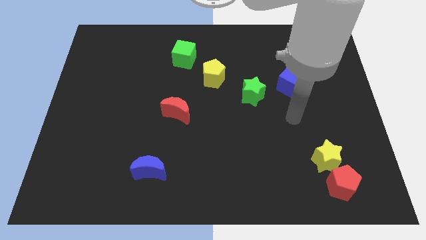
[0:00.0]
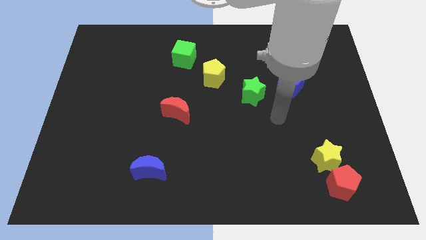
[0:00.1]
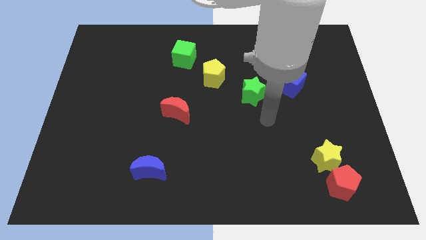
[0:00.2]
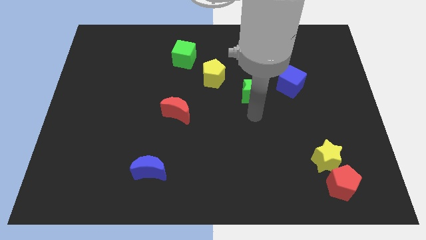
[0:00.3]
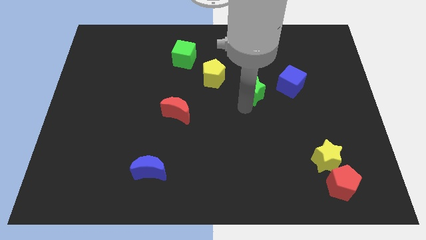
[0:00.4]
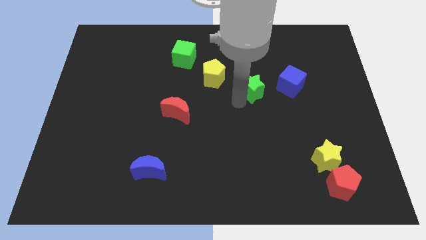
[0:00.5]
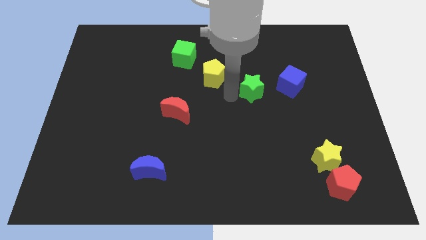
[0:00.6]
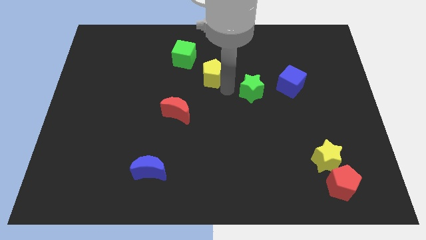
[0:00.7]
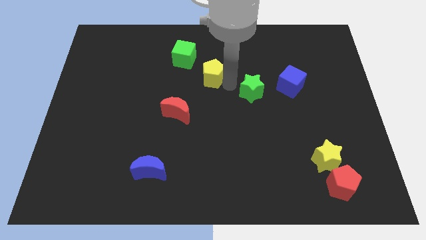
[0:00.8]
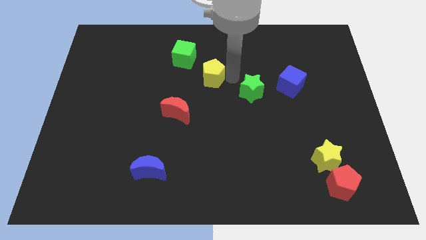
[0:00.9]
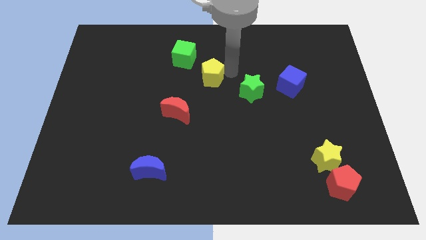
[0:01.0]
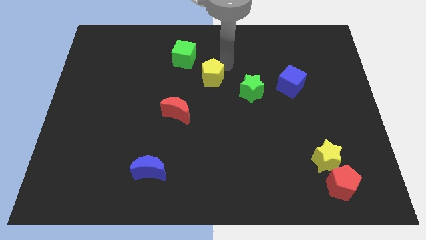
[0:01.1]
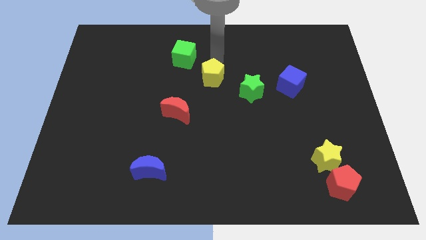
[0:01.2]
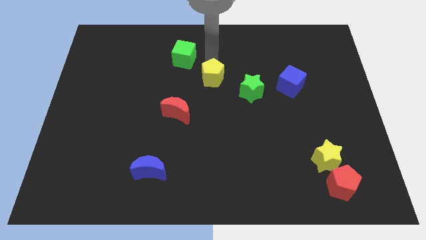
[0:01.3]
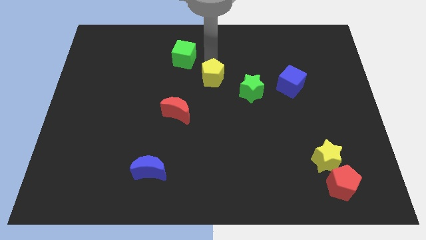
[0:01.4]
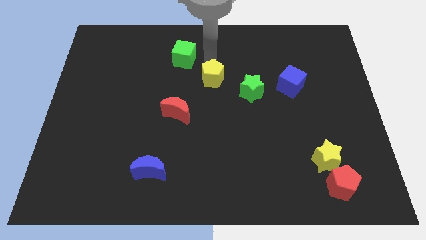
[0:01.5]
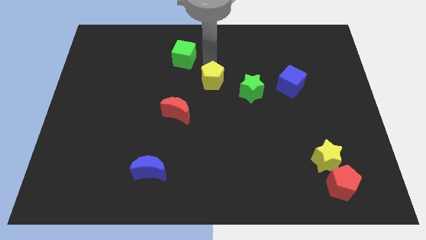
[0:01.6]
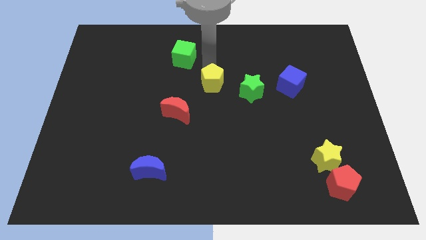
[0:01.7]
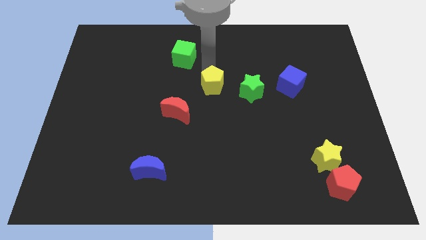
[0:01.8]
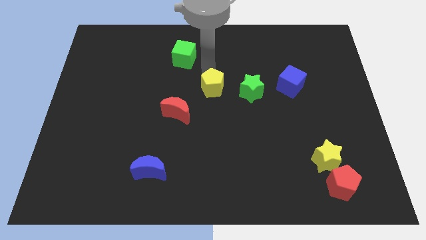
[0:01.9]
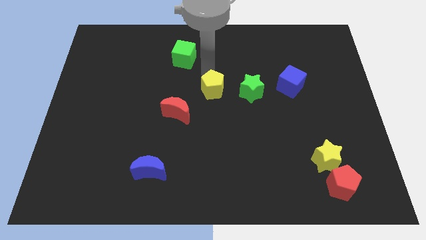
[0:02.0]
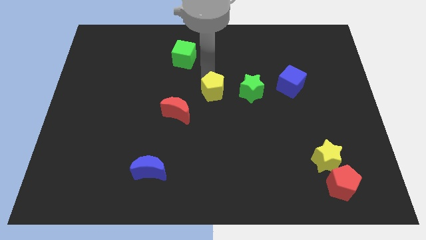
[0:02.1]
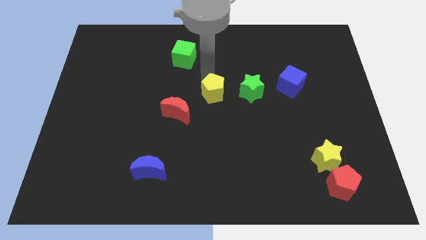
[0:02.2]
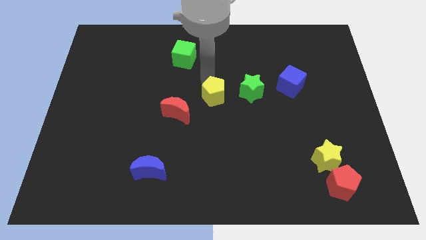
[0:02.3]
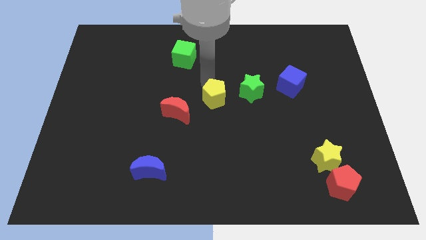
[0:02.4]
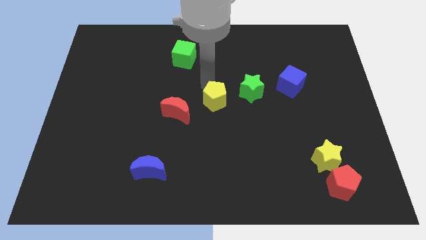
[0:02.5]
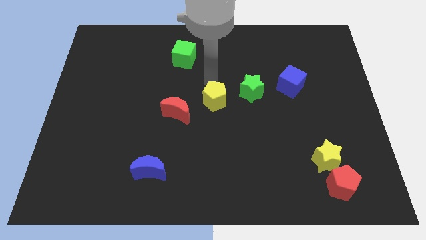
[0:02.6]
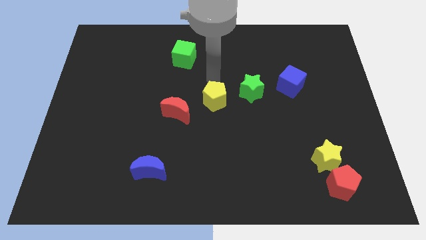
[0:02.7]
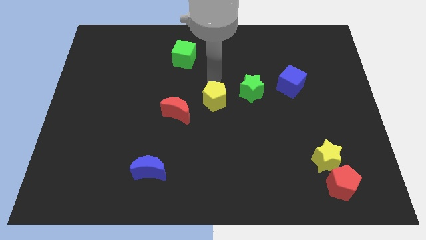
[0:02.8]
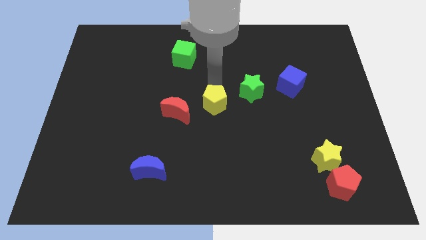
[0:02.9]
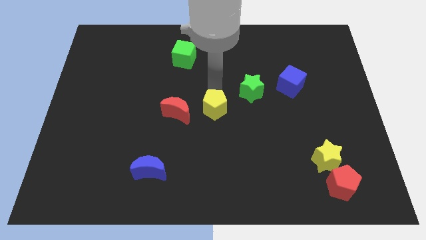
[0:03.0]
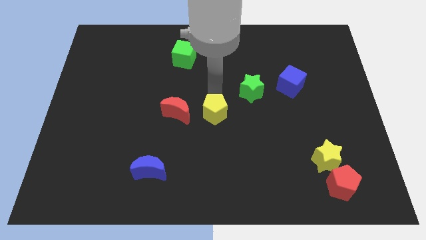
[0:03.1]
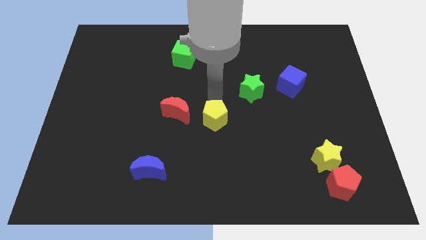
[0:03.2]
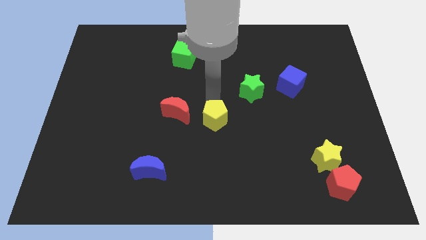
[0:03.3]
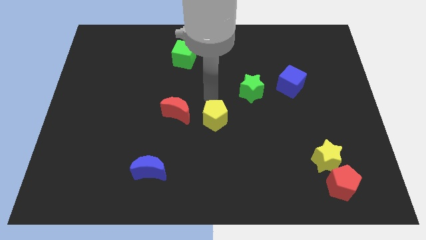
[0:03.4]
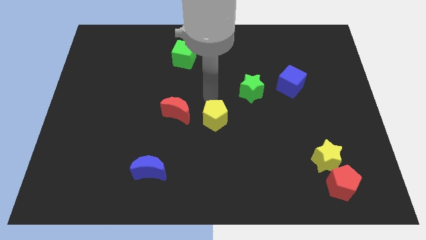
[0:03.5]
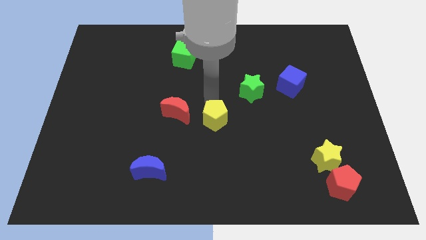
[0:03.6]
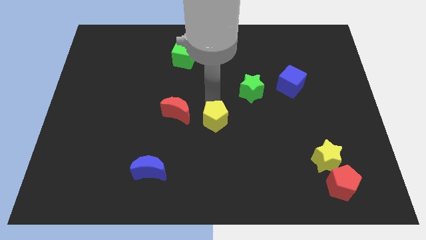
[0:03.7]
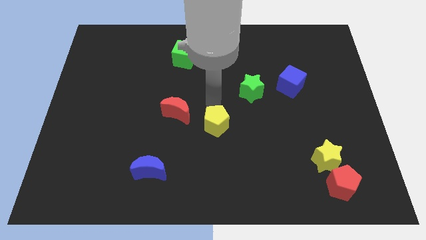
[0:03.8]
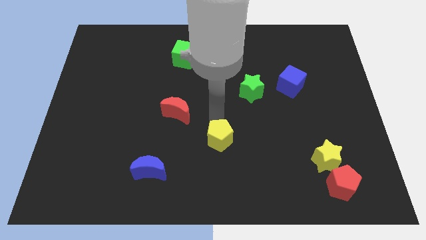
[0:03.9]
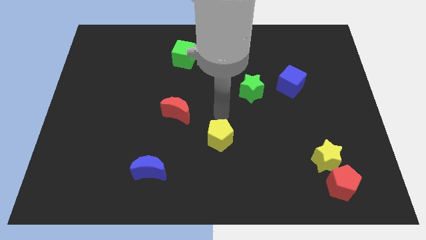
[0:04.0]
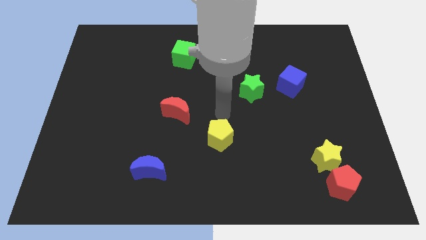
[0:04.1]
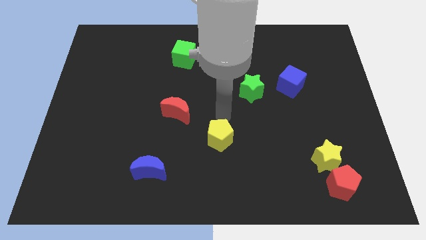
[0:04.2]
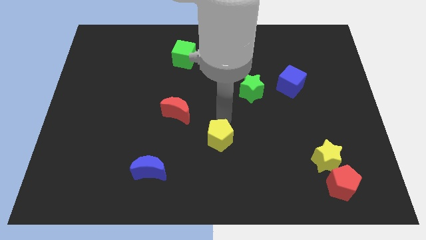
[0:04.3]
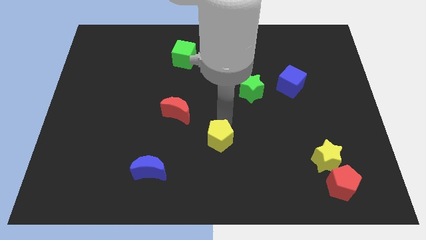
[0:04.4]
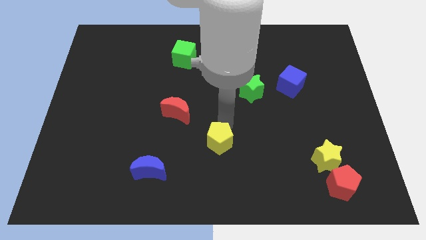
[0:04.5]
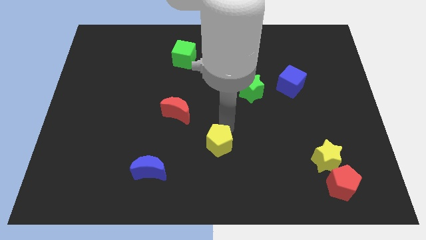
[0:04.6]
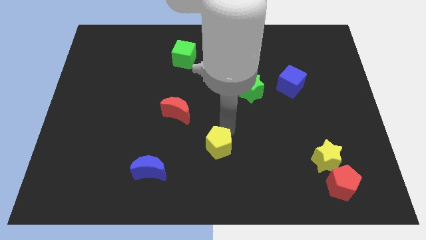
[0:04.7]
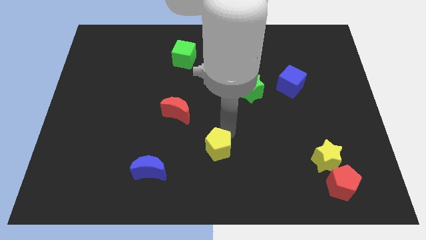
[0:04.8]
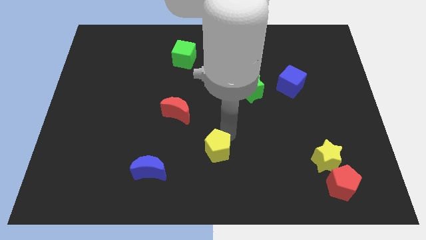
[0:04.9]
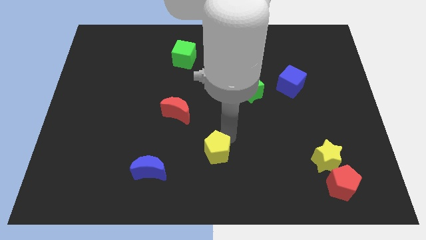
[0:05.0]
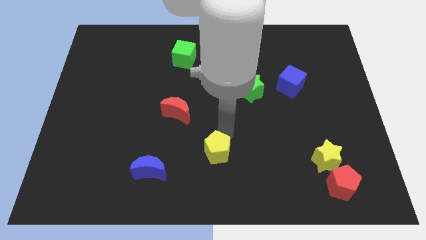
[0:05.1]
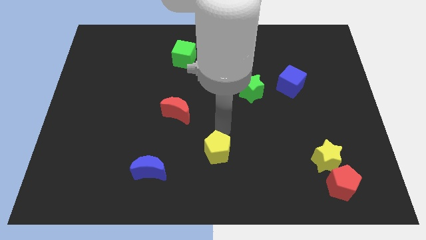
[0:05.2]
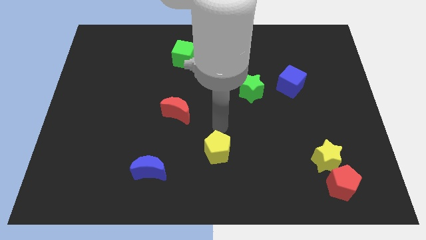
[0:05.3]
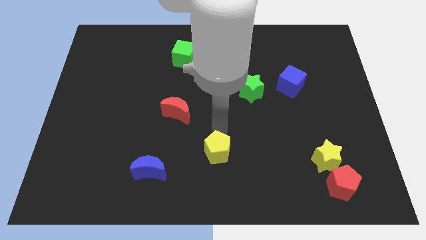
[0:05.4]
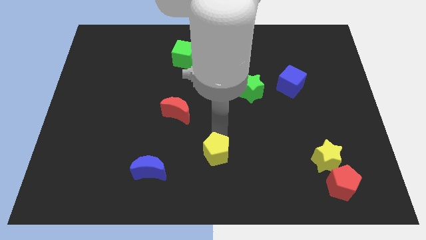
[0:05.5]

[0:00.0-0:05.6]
push the yellow pentagon to the bottom side

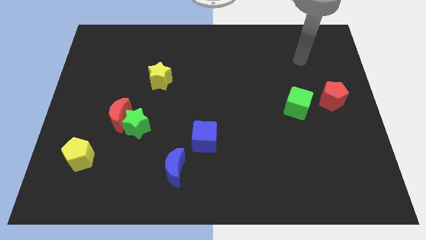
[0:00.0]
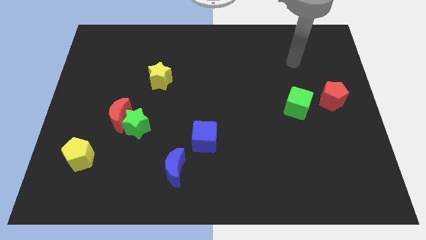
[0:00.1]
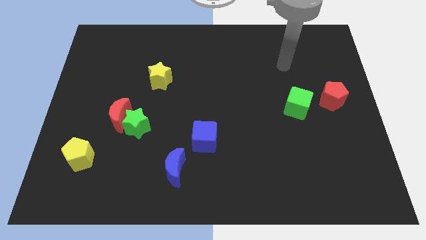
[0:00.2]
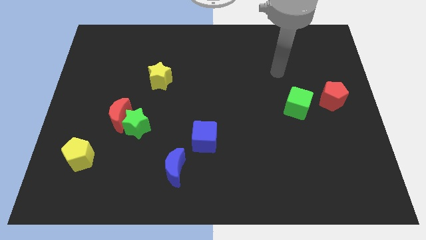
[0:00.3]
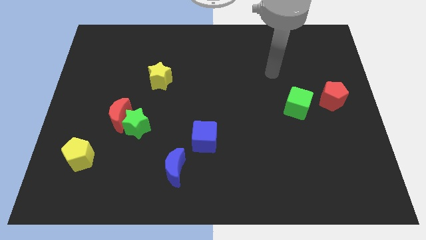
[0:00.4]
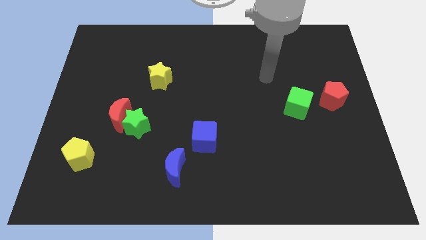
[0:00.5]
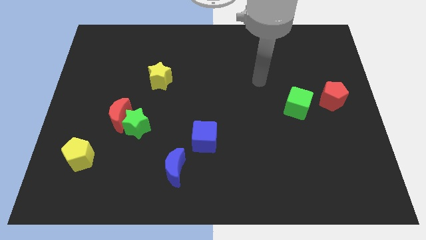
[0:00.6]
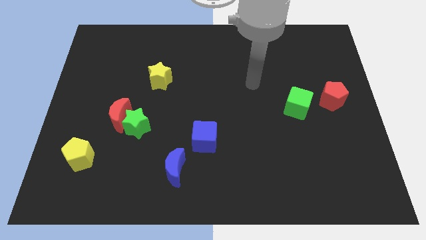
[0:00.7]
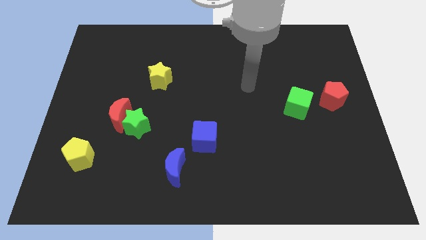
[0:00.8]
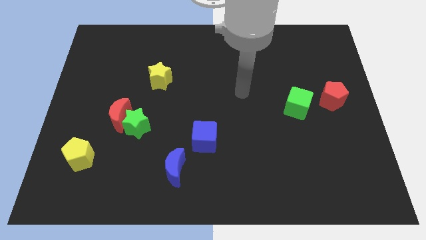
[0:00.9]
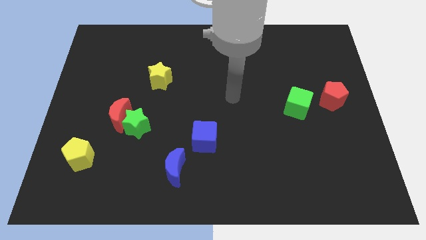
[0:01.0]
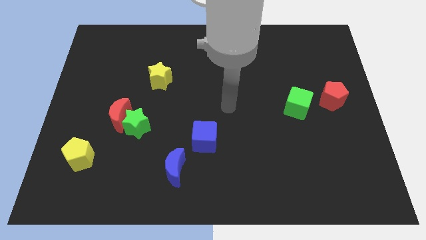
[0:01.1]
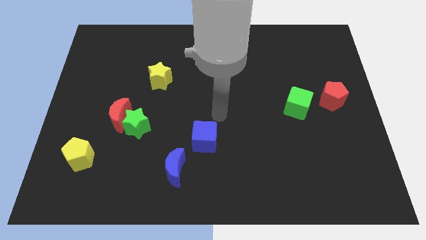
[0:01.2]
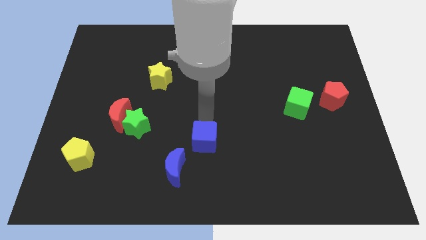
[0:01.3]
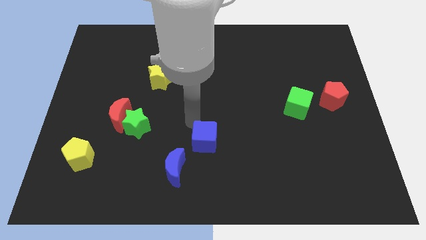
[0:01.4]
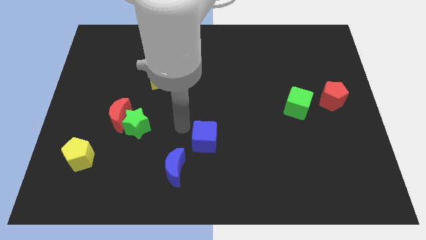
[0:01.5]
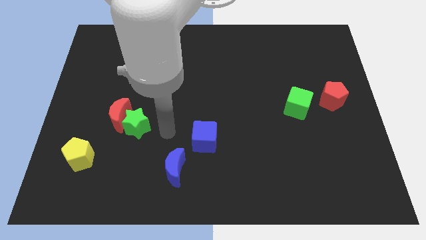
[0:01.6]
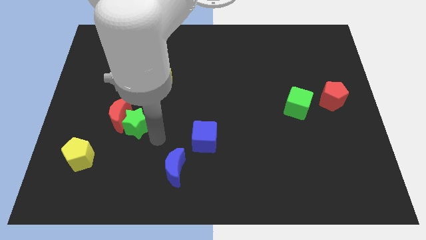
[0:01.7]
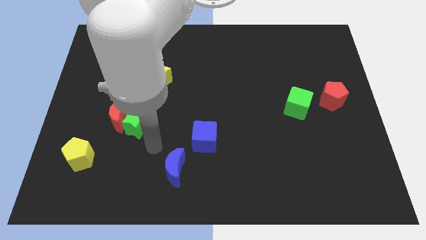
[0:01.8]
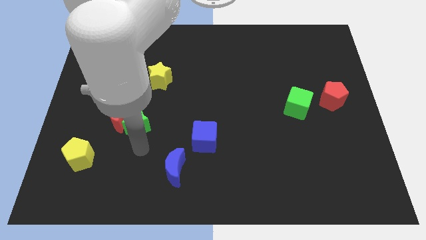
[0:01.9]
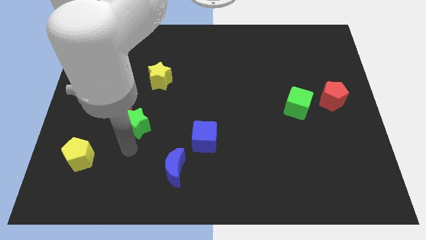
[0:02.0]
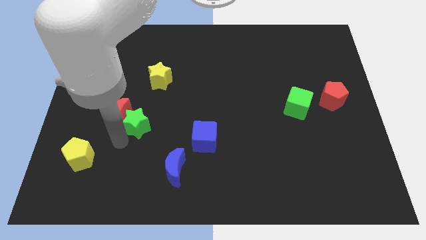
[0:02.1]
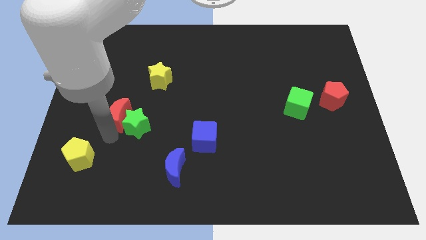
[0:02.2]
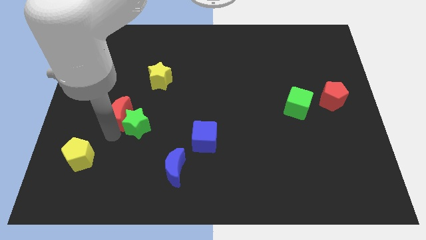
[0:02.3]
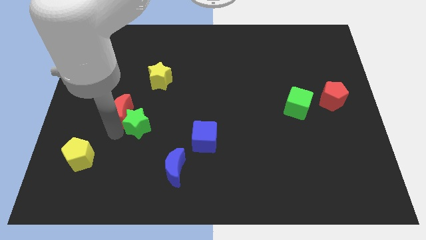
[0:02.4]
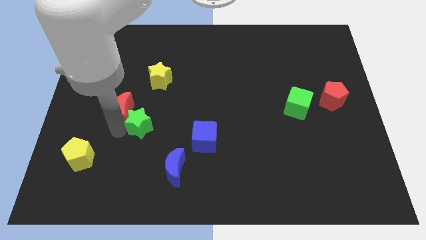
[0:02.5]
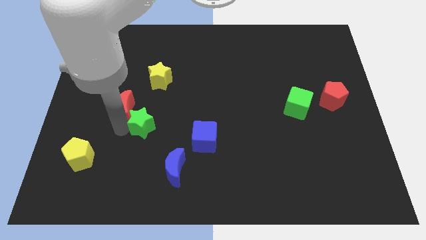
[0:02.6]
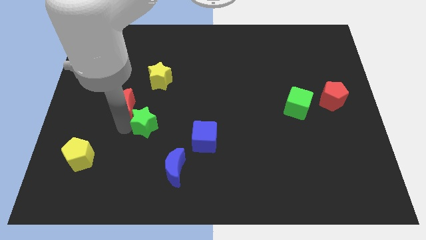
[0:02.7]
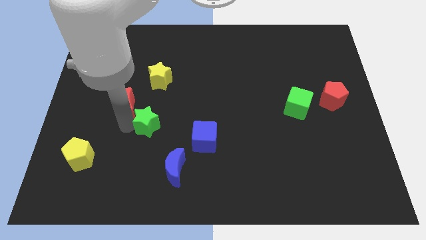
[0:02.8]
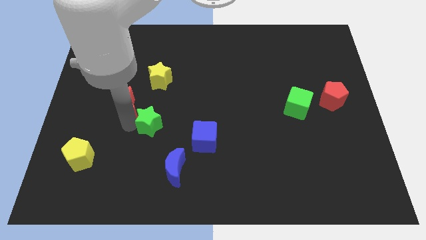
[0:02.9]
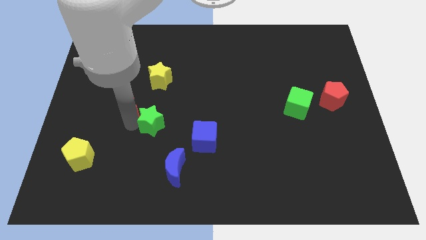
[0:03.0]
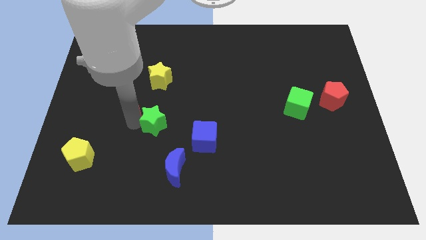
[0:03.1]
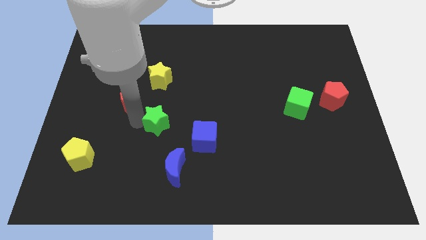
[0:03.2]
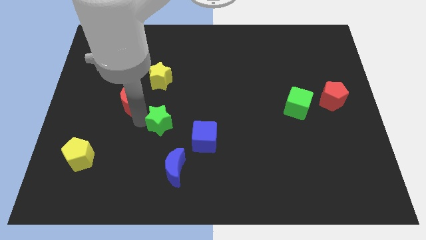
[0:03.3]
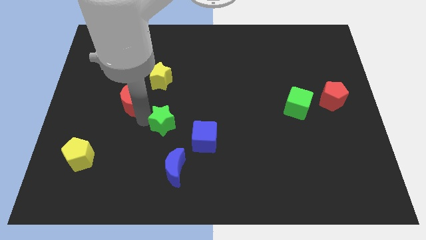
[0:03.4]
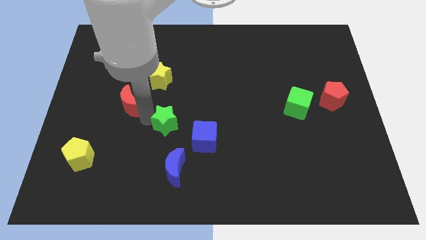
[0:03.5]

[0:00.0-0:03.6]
move the green star to the middle of the board
